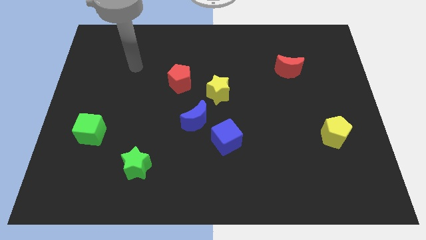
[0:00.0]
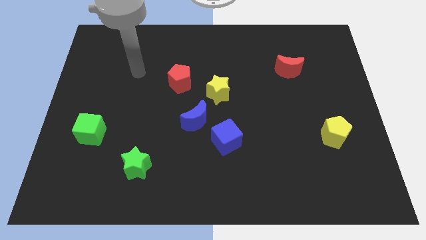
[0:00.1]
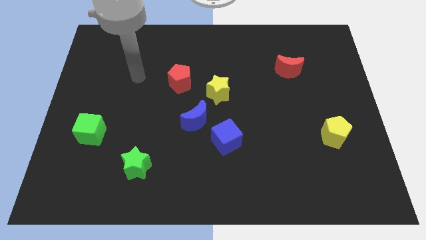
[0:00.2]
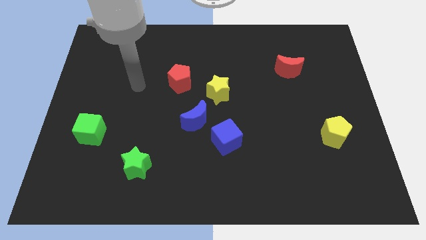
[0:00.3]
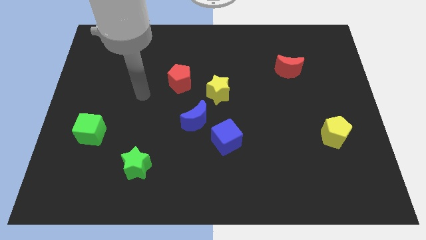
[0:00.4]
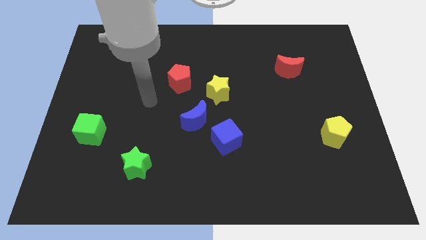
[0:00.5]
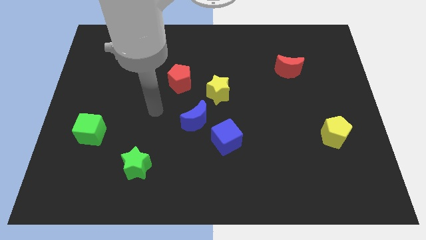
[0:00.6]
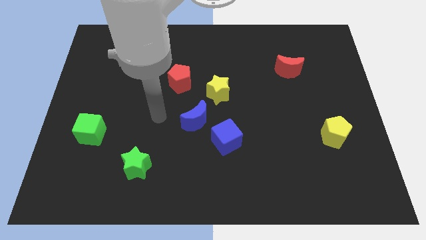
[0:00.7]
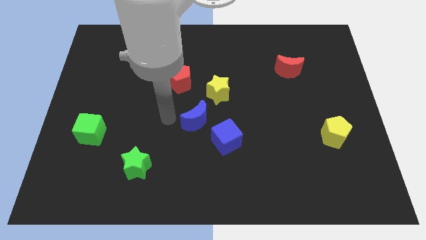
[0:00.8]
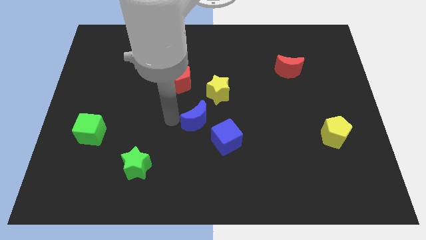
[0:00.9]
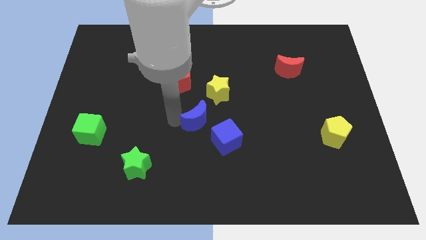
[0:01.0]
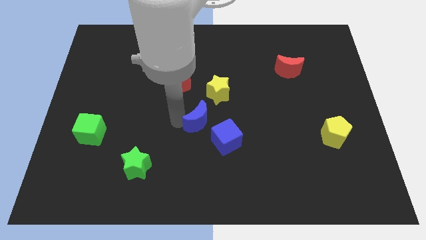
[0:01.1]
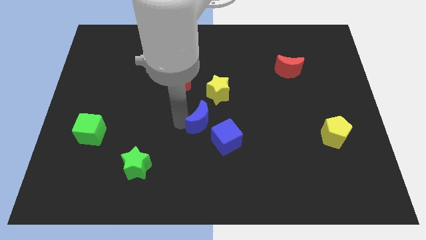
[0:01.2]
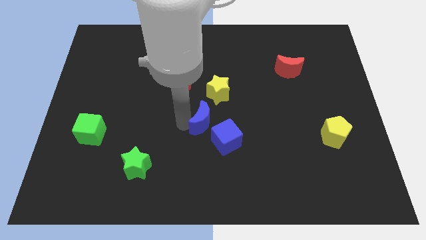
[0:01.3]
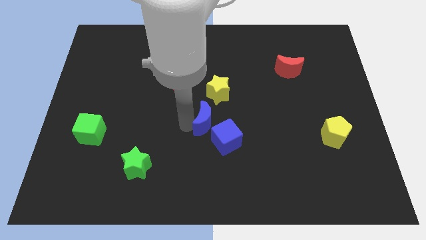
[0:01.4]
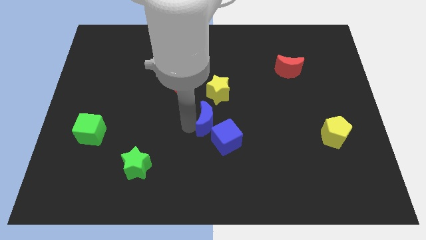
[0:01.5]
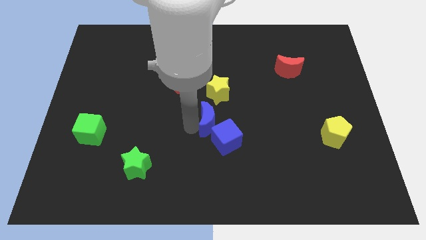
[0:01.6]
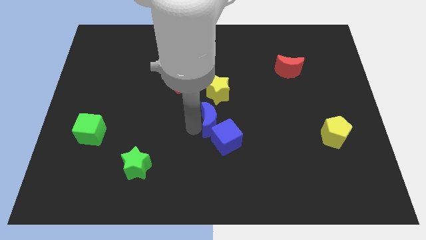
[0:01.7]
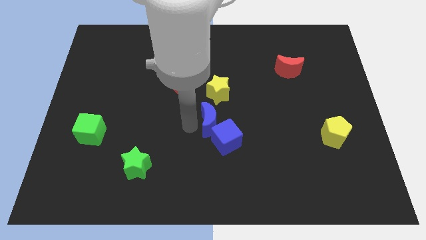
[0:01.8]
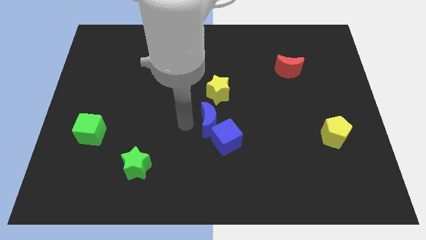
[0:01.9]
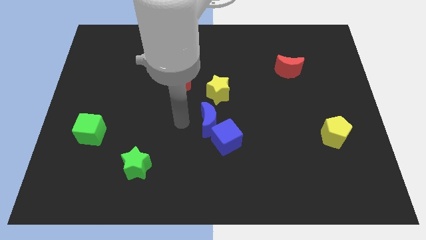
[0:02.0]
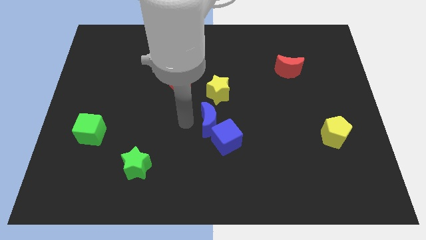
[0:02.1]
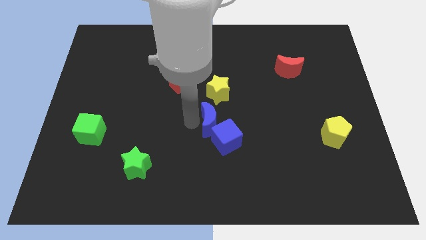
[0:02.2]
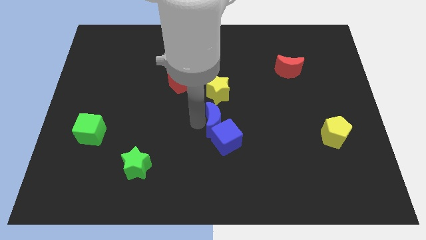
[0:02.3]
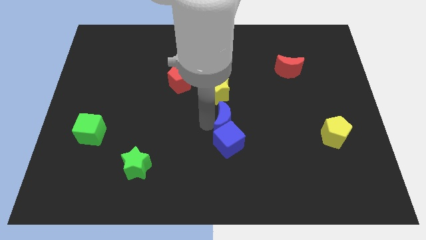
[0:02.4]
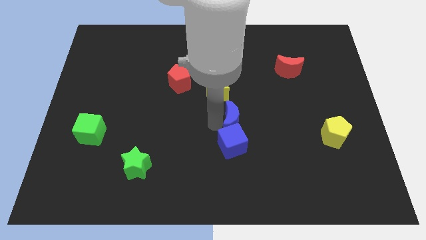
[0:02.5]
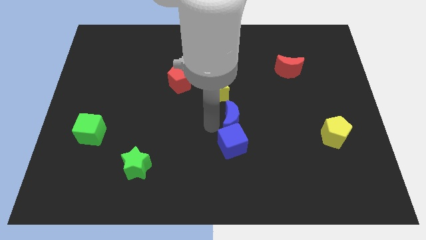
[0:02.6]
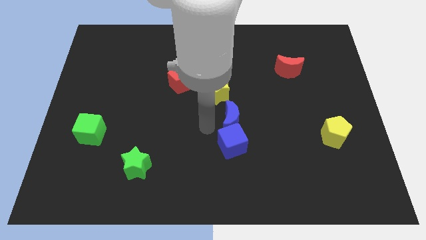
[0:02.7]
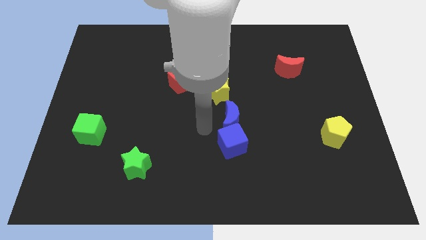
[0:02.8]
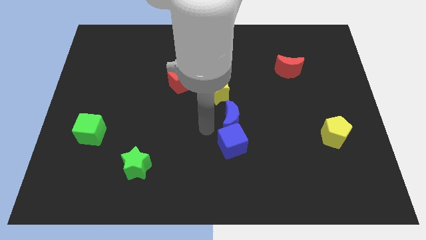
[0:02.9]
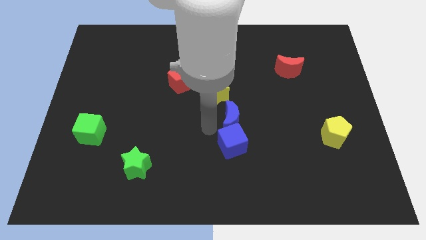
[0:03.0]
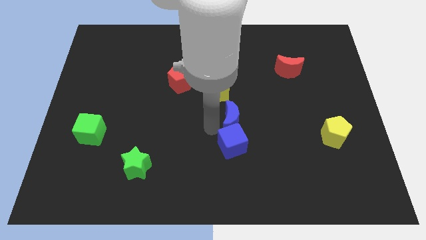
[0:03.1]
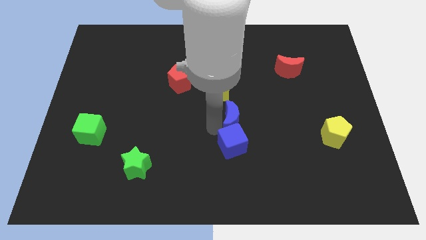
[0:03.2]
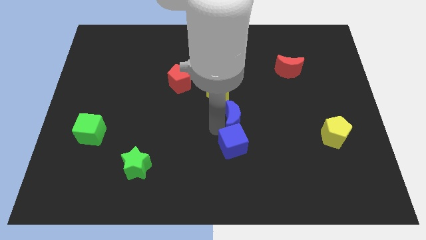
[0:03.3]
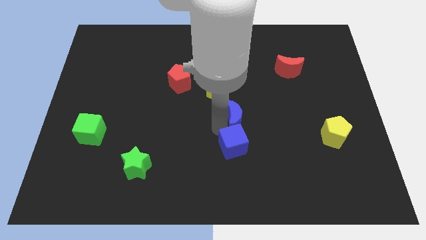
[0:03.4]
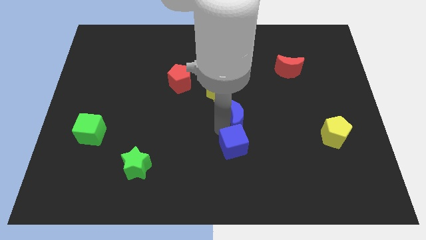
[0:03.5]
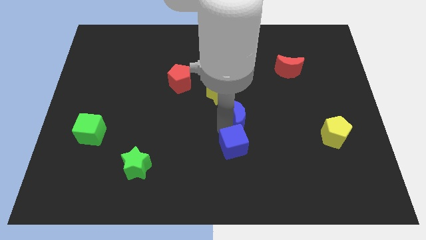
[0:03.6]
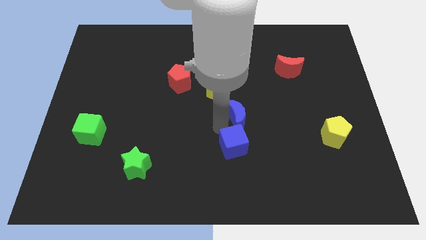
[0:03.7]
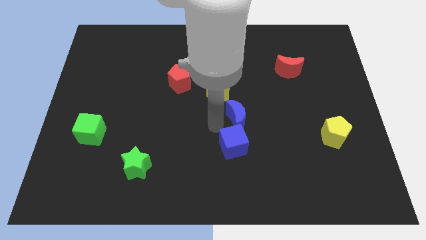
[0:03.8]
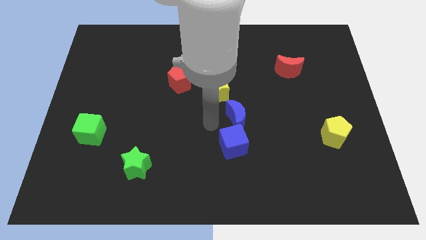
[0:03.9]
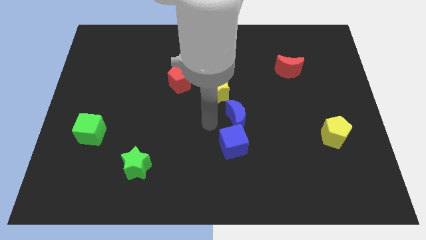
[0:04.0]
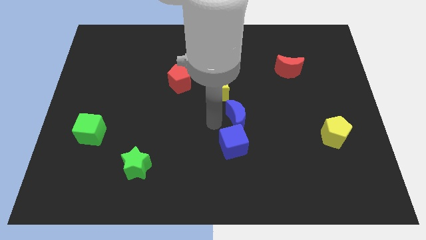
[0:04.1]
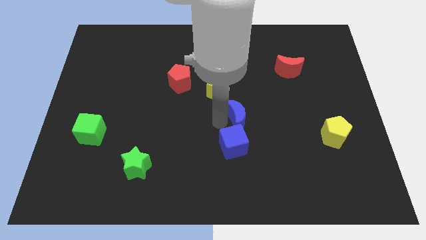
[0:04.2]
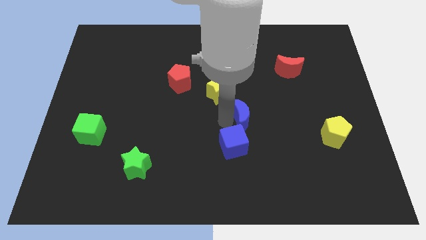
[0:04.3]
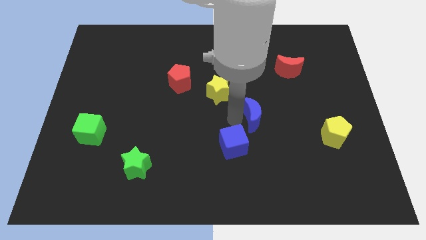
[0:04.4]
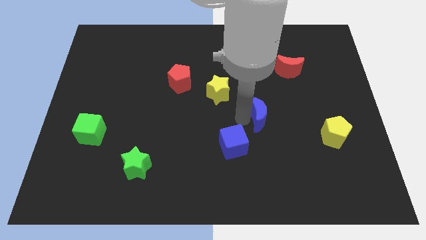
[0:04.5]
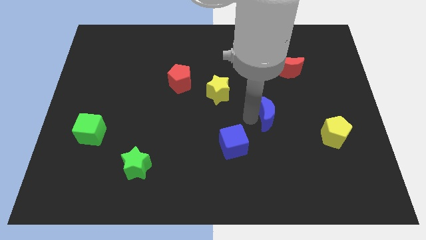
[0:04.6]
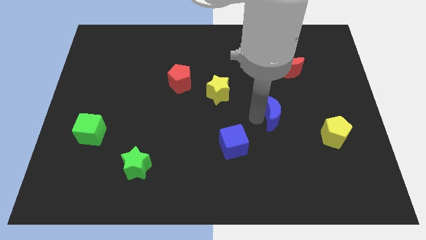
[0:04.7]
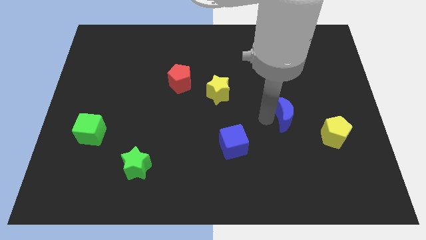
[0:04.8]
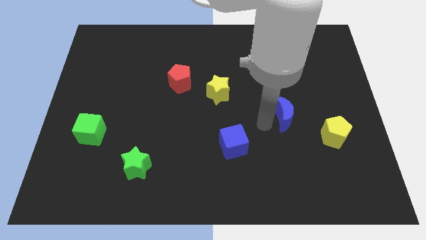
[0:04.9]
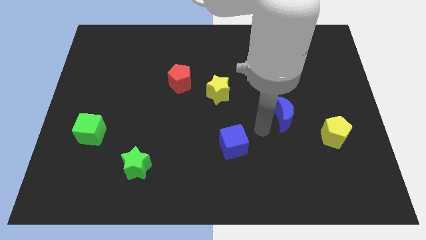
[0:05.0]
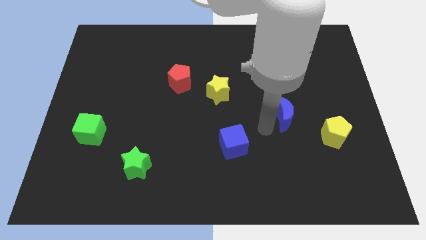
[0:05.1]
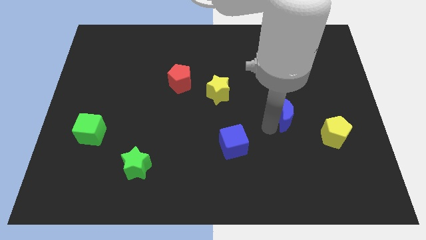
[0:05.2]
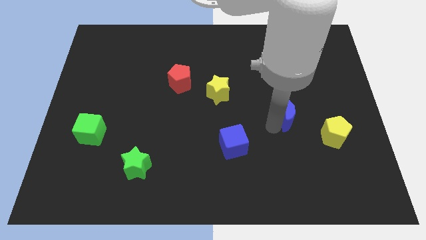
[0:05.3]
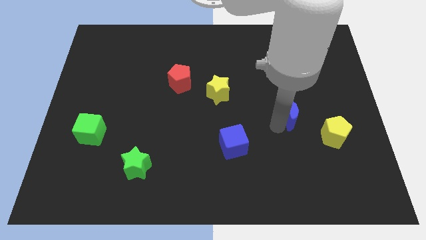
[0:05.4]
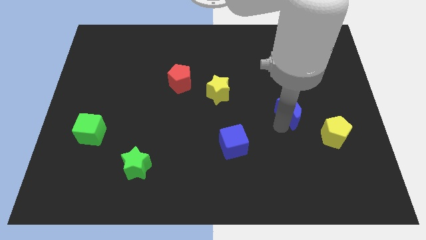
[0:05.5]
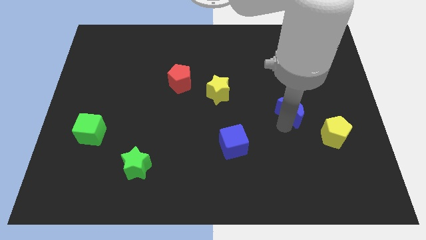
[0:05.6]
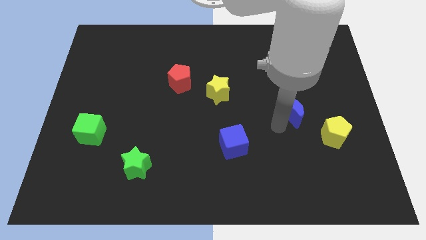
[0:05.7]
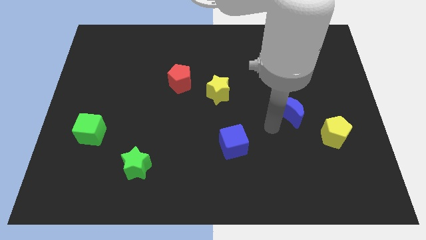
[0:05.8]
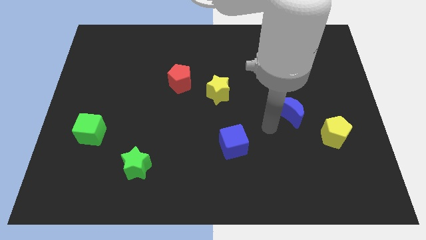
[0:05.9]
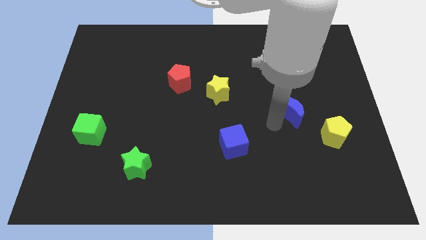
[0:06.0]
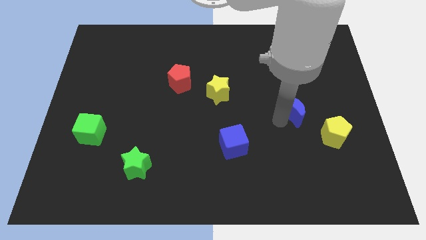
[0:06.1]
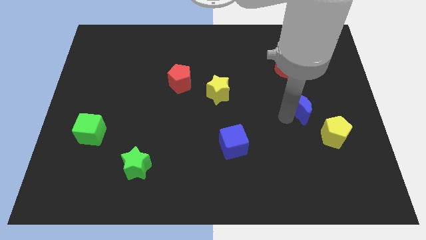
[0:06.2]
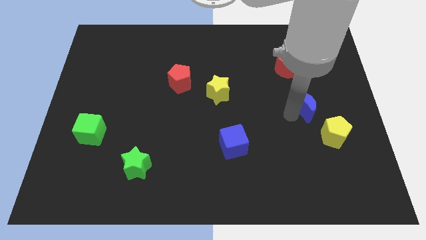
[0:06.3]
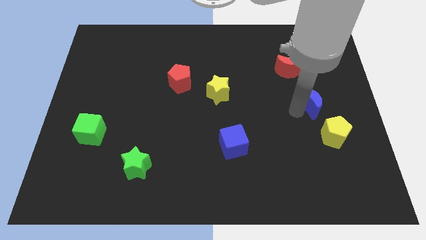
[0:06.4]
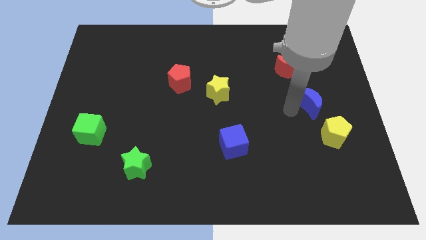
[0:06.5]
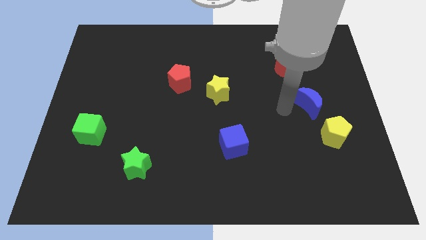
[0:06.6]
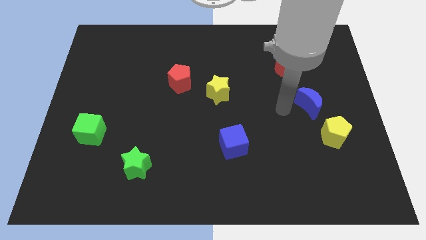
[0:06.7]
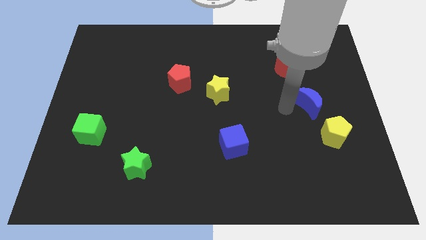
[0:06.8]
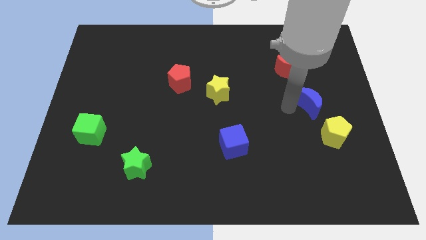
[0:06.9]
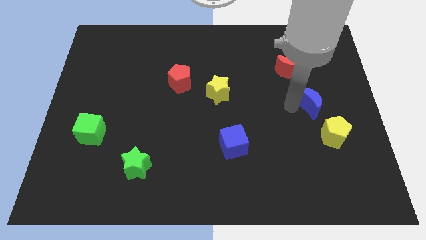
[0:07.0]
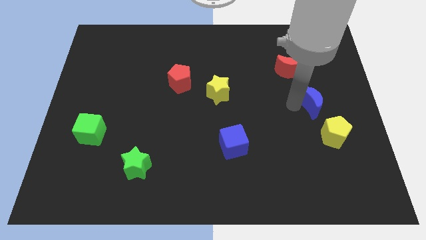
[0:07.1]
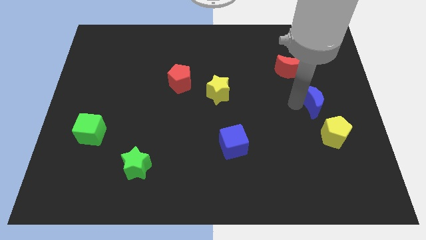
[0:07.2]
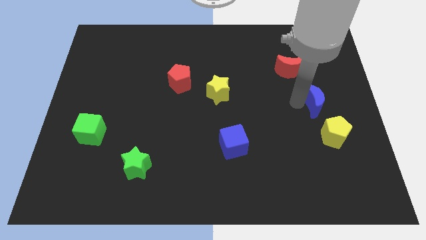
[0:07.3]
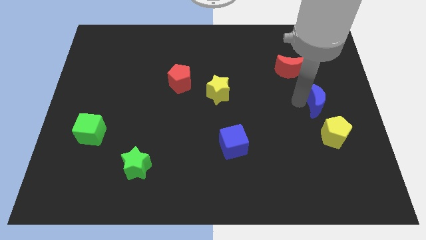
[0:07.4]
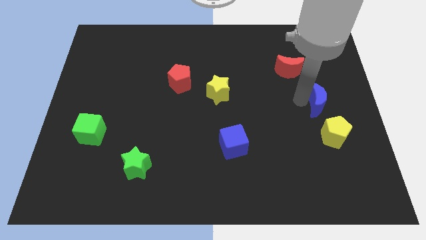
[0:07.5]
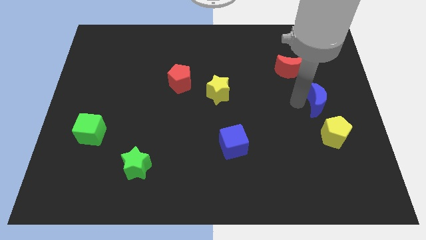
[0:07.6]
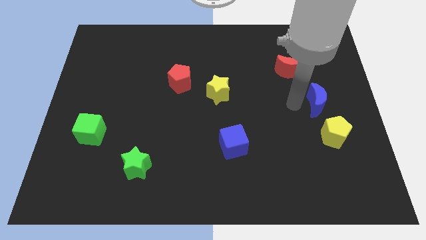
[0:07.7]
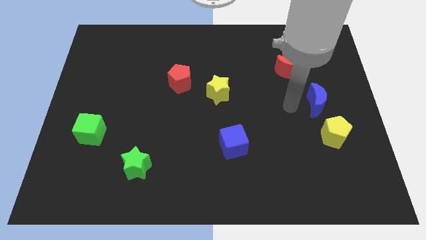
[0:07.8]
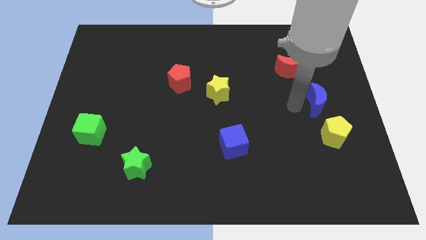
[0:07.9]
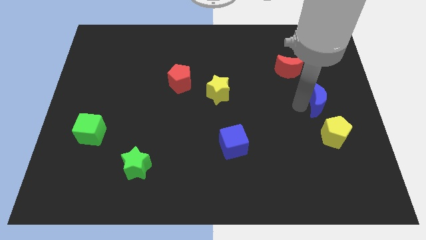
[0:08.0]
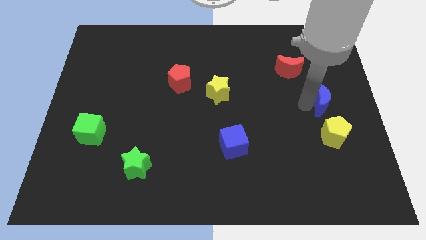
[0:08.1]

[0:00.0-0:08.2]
move the blue moon to the right side of the board

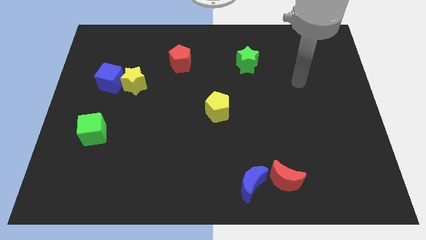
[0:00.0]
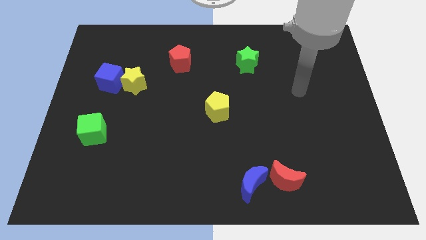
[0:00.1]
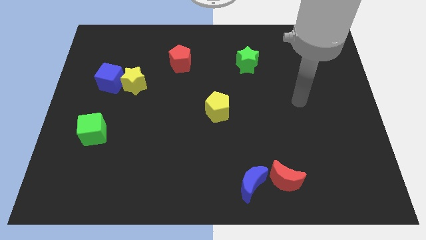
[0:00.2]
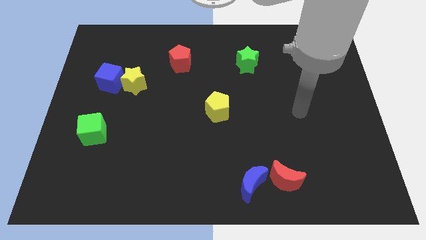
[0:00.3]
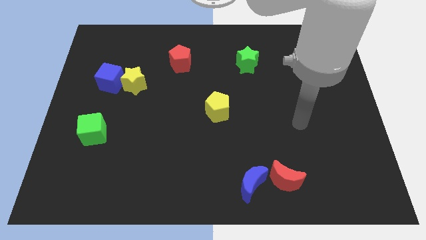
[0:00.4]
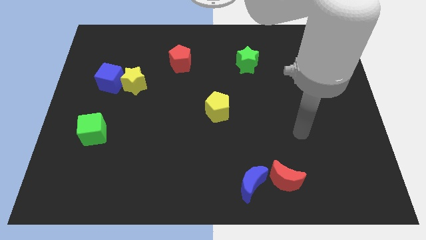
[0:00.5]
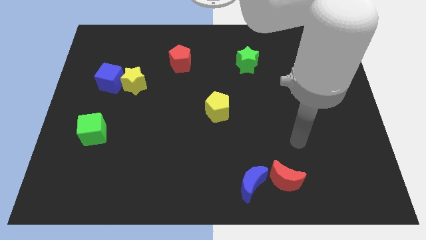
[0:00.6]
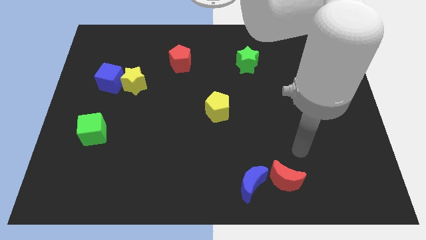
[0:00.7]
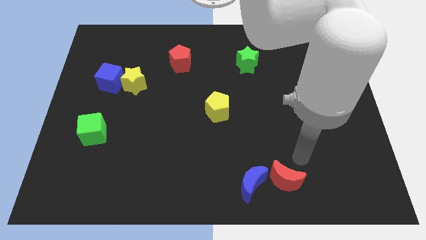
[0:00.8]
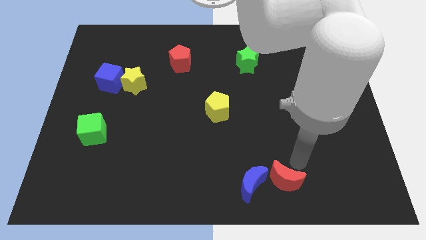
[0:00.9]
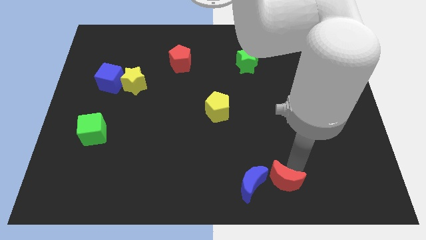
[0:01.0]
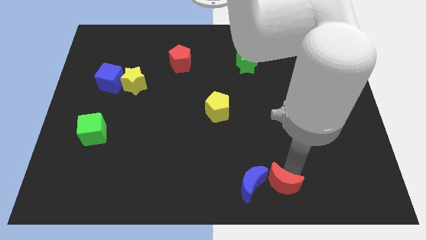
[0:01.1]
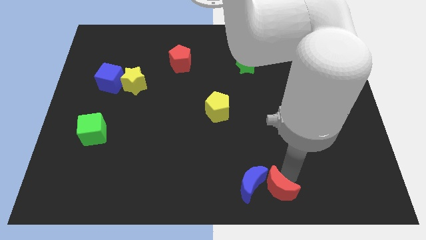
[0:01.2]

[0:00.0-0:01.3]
put the red moon to the bottom
